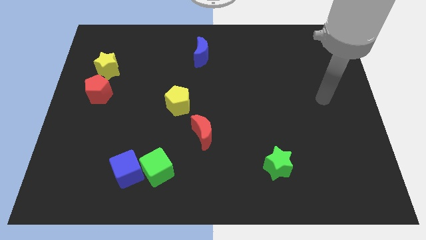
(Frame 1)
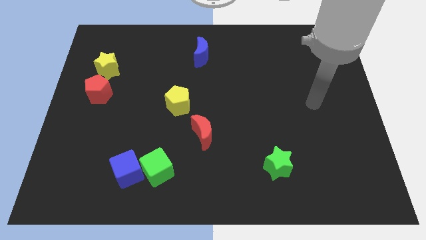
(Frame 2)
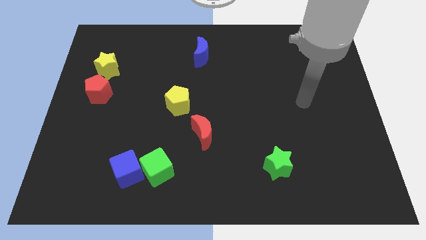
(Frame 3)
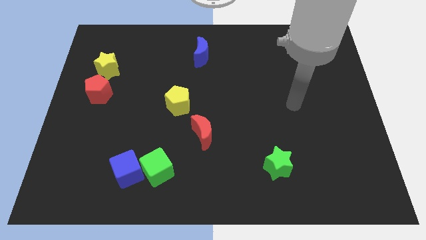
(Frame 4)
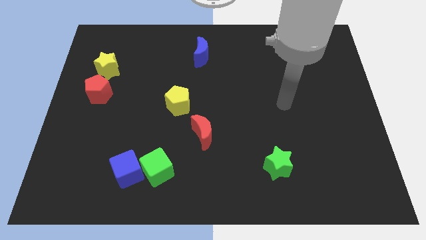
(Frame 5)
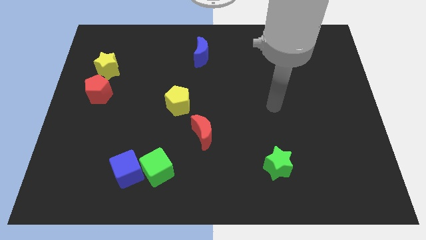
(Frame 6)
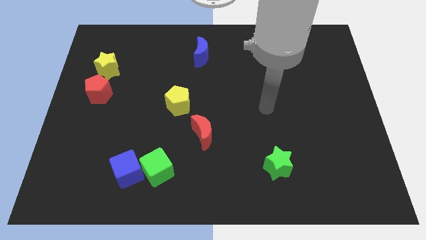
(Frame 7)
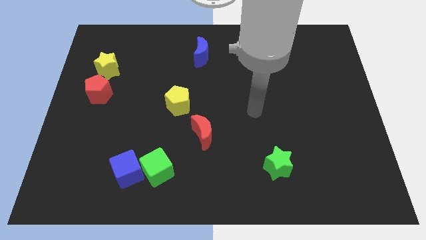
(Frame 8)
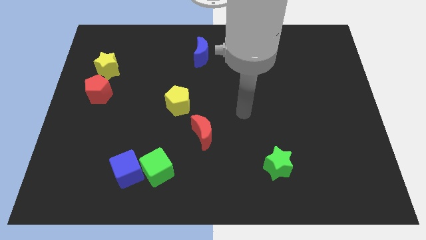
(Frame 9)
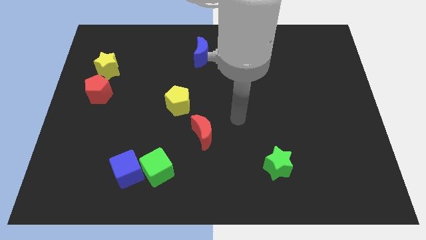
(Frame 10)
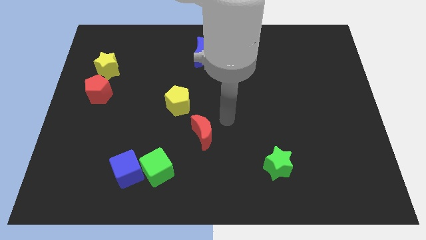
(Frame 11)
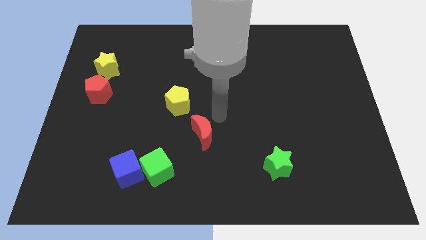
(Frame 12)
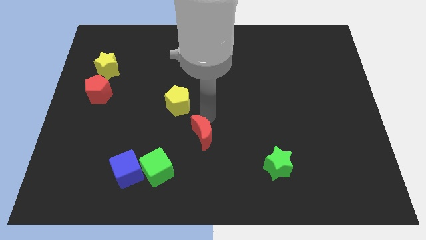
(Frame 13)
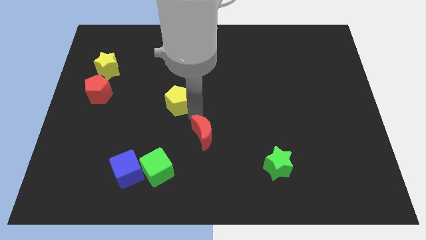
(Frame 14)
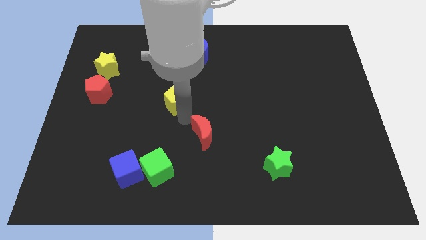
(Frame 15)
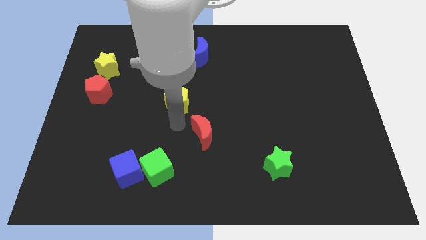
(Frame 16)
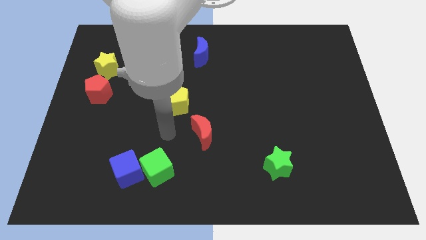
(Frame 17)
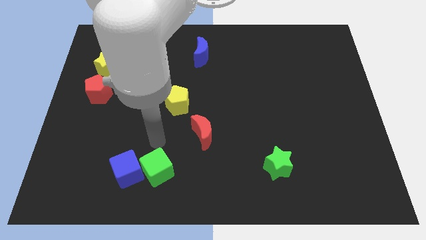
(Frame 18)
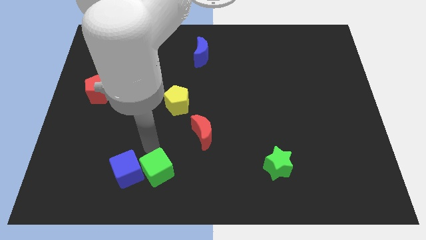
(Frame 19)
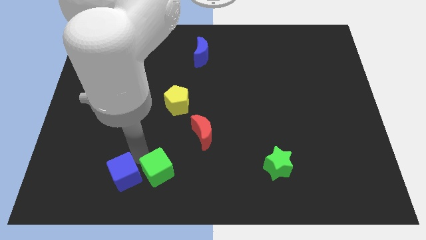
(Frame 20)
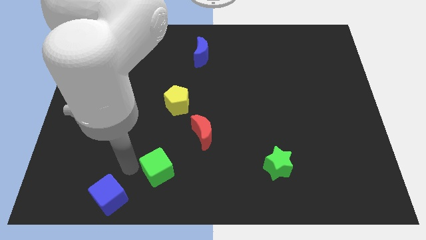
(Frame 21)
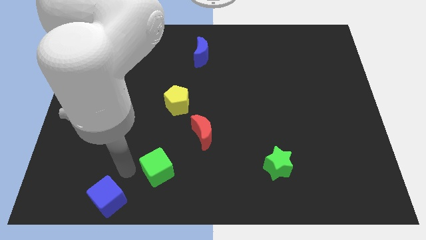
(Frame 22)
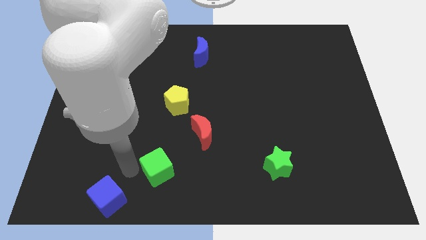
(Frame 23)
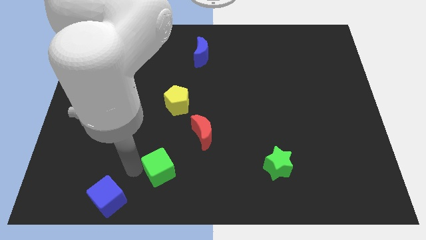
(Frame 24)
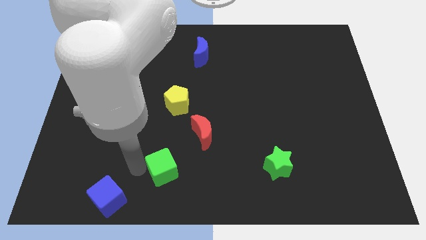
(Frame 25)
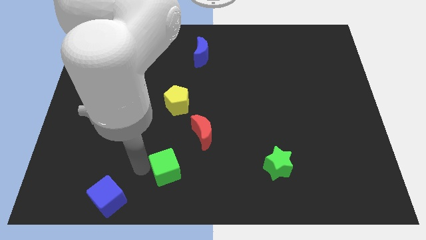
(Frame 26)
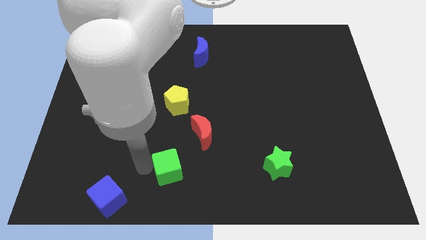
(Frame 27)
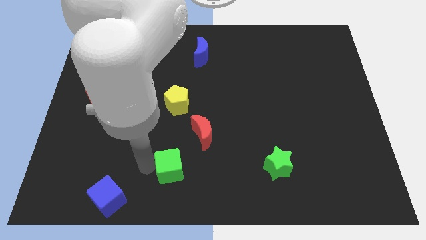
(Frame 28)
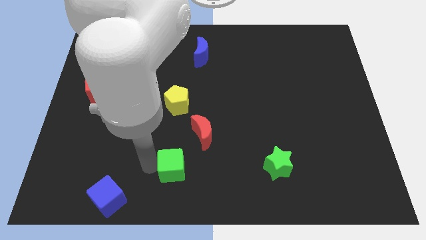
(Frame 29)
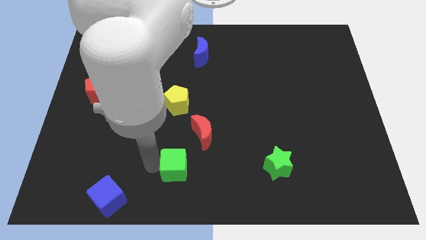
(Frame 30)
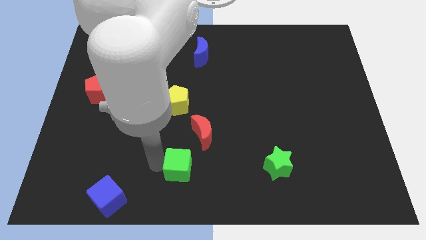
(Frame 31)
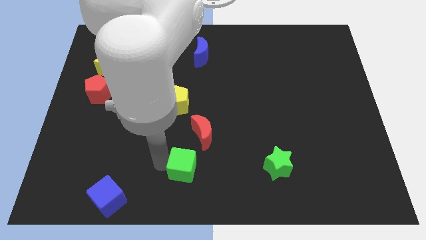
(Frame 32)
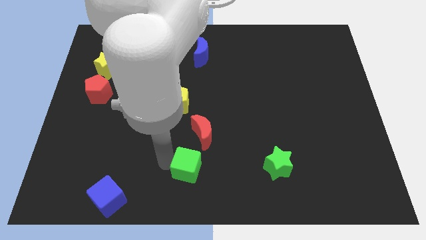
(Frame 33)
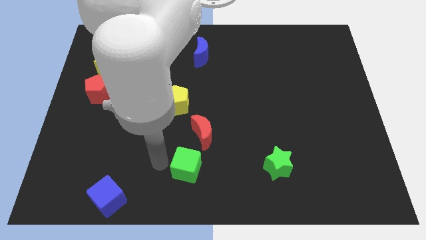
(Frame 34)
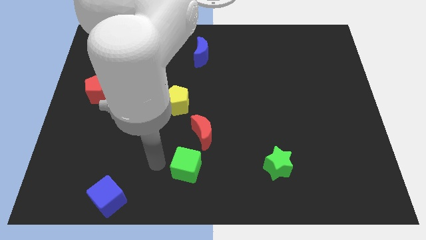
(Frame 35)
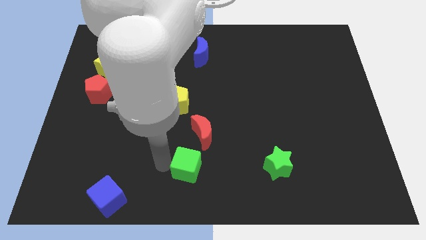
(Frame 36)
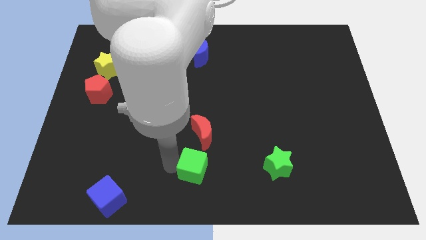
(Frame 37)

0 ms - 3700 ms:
slide the green cube right slightly

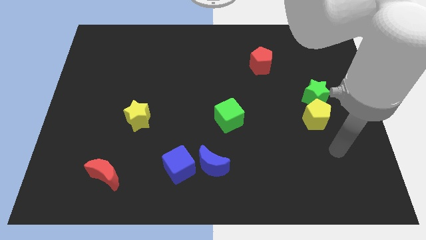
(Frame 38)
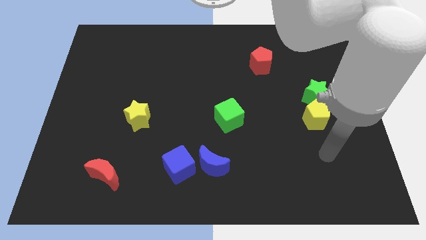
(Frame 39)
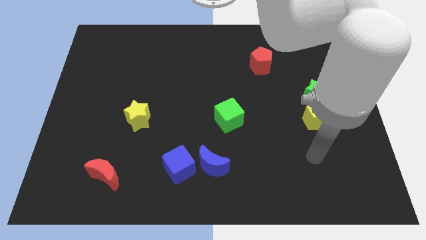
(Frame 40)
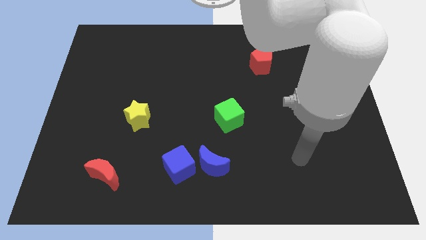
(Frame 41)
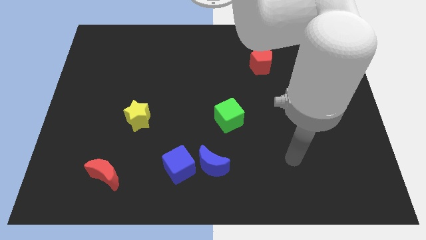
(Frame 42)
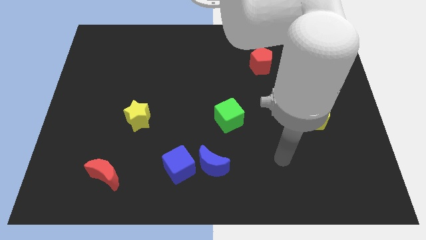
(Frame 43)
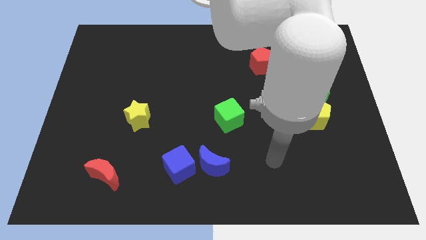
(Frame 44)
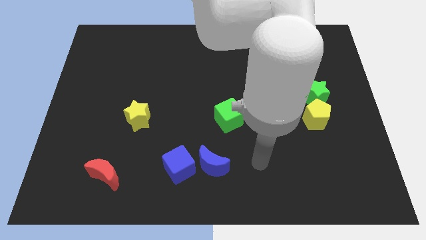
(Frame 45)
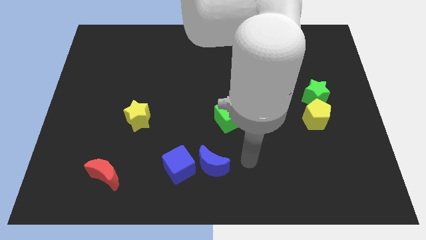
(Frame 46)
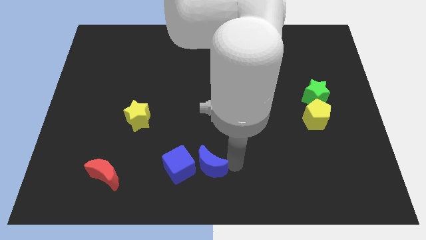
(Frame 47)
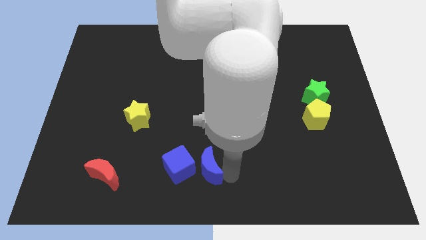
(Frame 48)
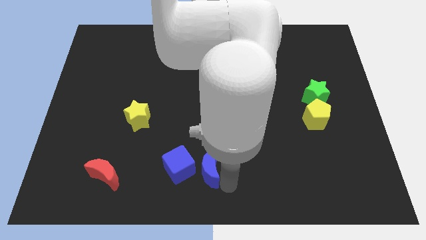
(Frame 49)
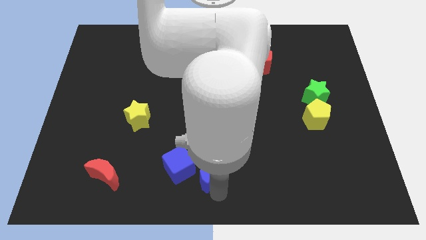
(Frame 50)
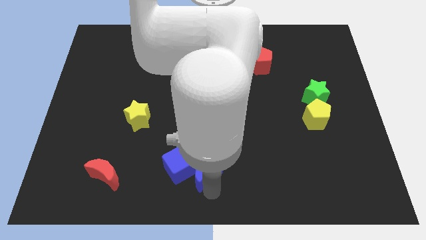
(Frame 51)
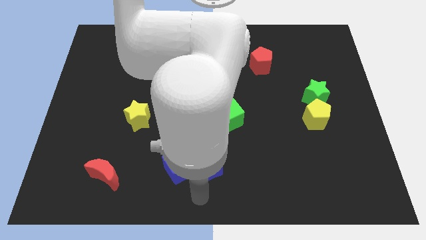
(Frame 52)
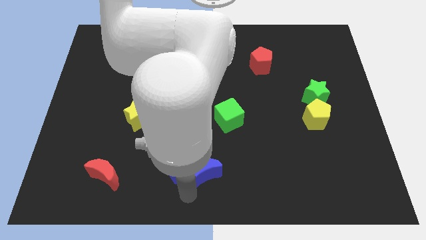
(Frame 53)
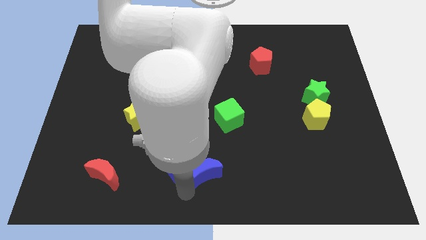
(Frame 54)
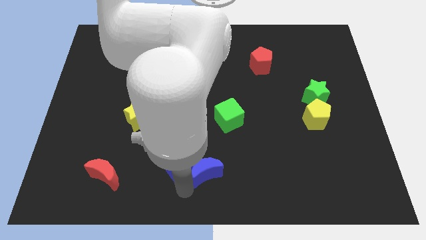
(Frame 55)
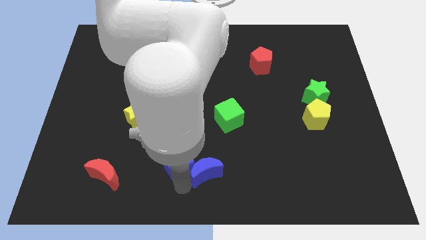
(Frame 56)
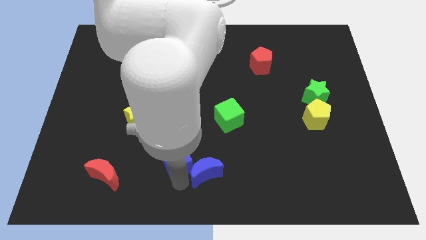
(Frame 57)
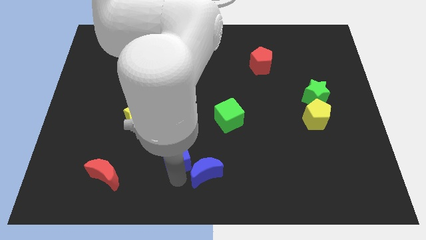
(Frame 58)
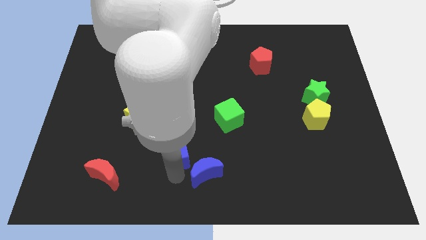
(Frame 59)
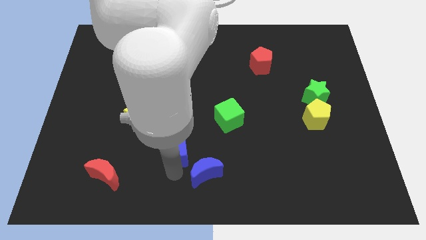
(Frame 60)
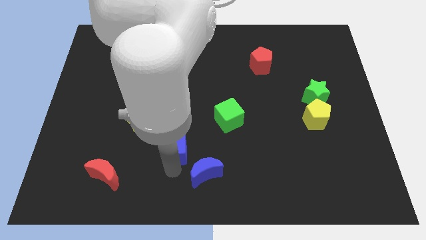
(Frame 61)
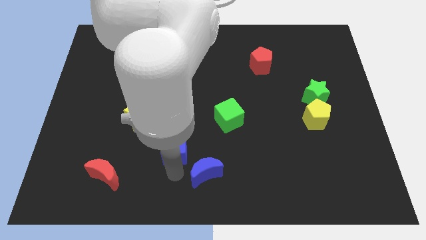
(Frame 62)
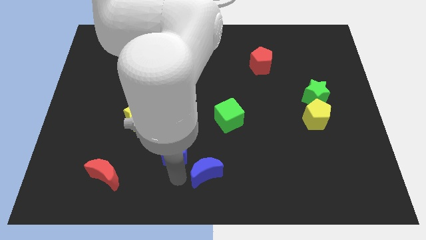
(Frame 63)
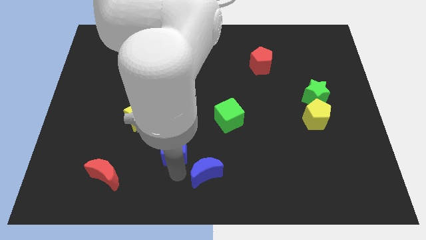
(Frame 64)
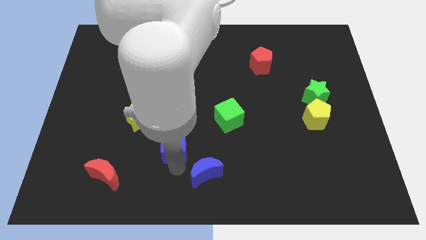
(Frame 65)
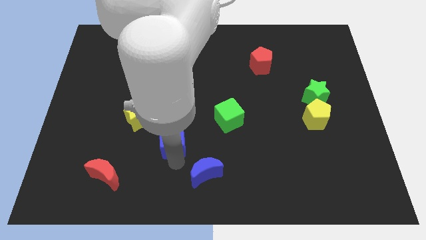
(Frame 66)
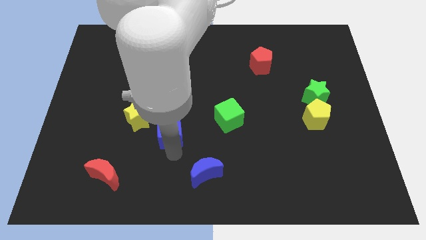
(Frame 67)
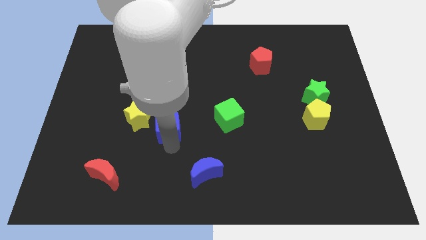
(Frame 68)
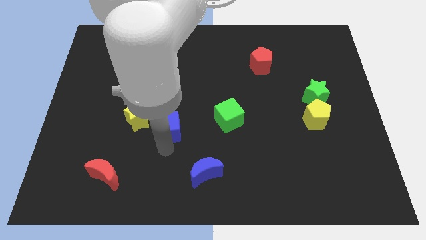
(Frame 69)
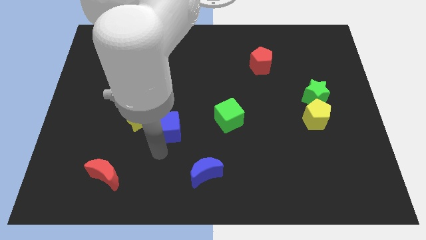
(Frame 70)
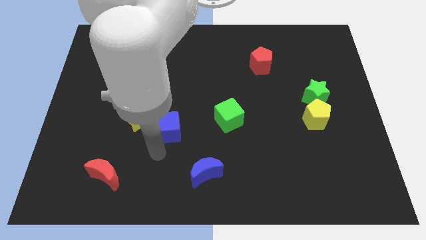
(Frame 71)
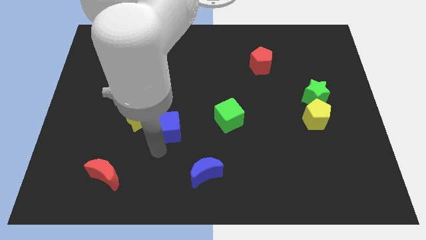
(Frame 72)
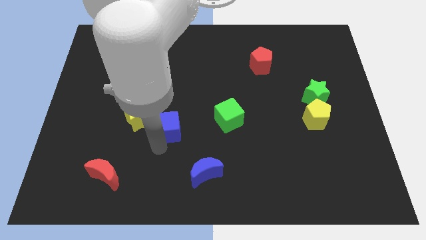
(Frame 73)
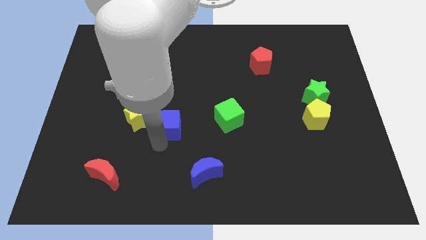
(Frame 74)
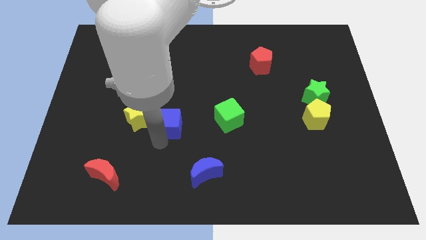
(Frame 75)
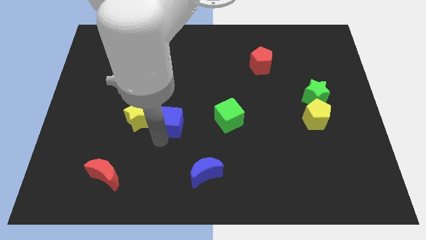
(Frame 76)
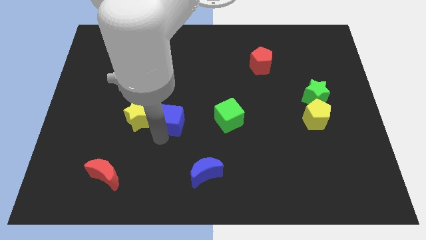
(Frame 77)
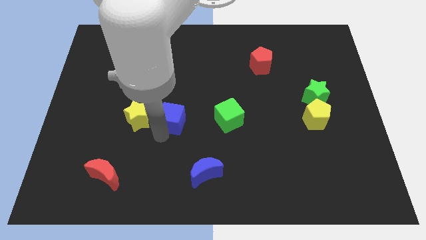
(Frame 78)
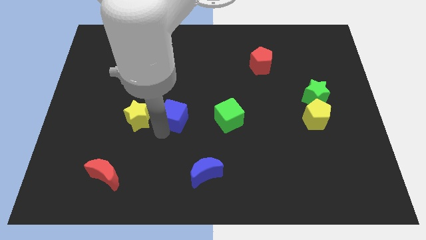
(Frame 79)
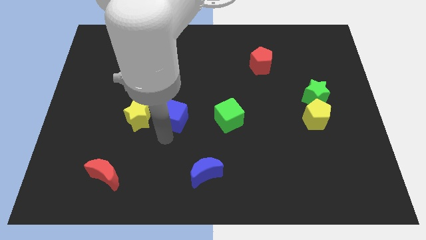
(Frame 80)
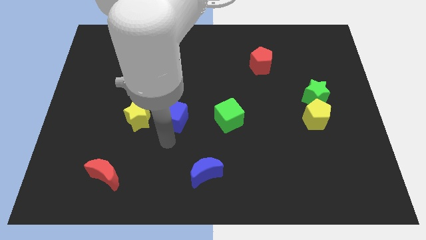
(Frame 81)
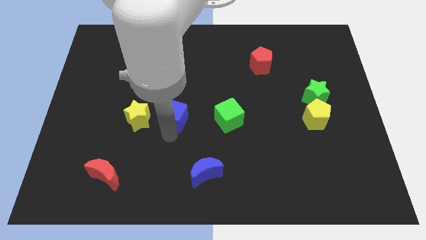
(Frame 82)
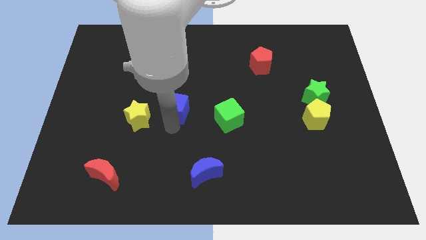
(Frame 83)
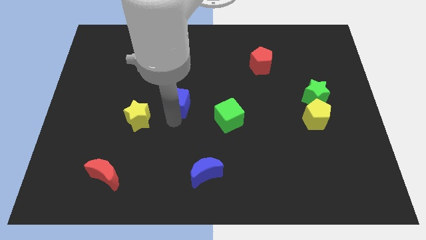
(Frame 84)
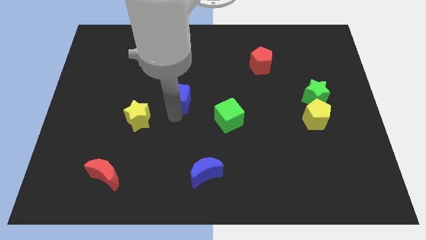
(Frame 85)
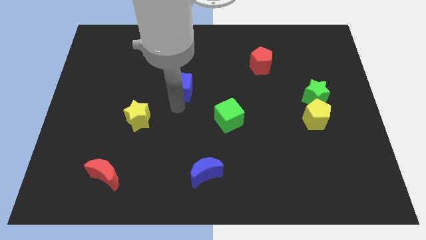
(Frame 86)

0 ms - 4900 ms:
push the blue cube up
